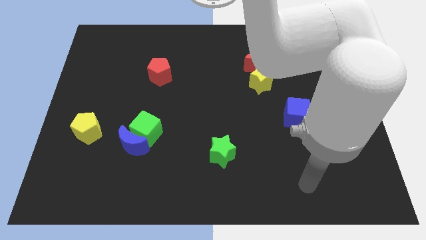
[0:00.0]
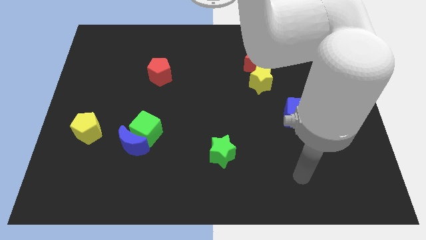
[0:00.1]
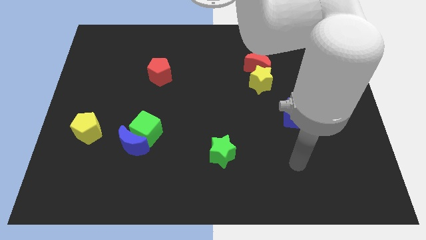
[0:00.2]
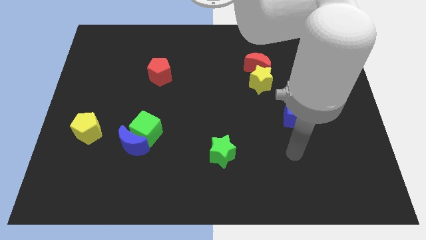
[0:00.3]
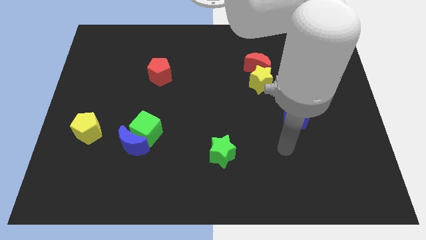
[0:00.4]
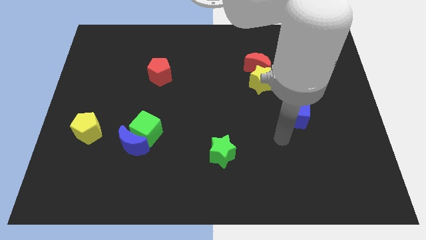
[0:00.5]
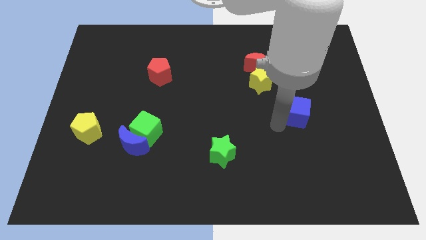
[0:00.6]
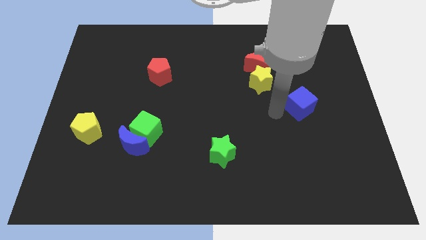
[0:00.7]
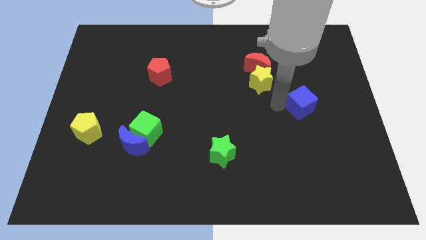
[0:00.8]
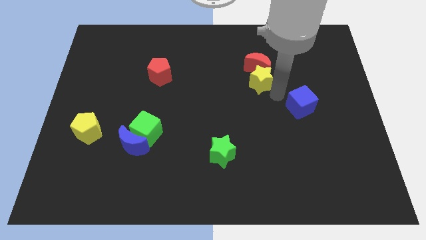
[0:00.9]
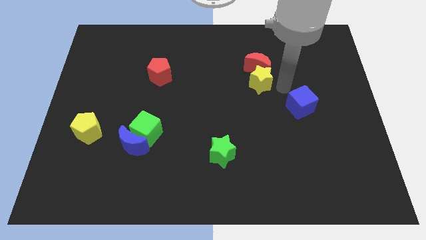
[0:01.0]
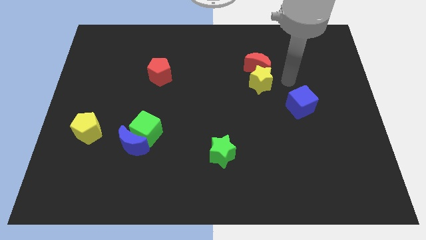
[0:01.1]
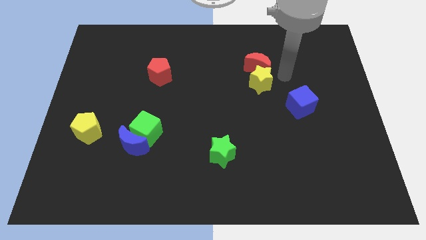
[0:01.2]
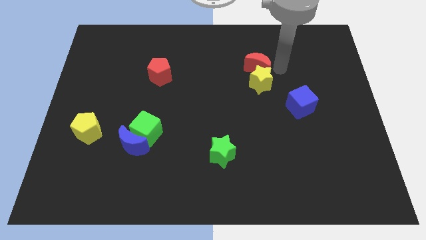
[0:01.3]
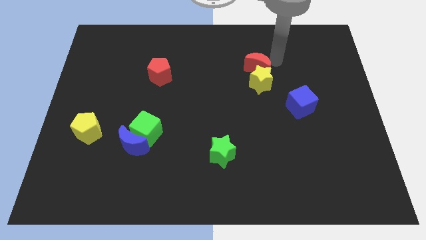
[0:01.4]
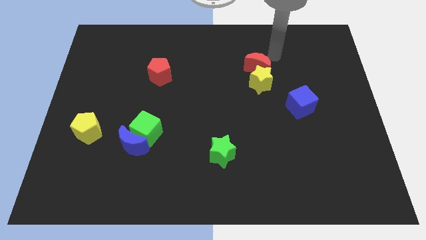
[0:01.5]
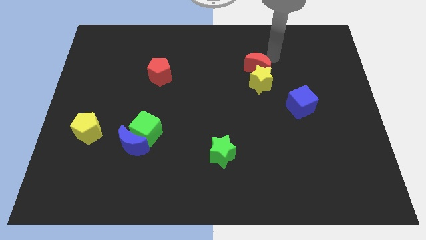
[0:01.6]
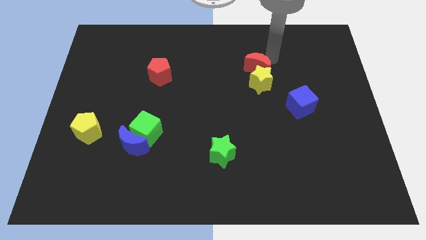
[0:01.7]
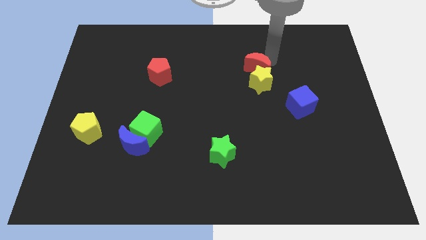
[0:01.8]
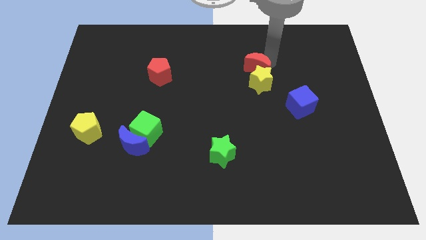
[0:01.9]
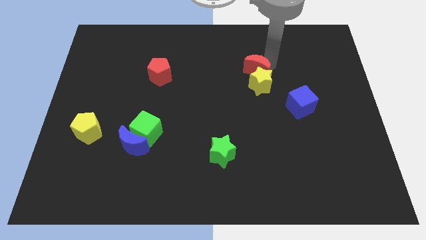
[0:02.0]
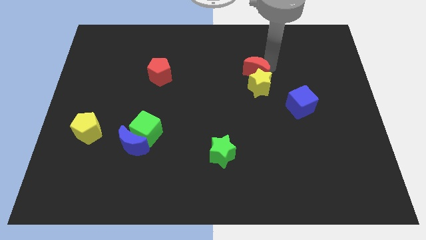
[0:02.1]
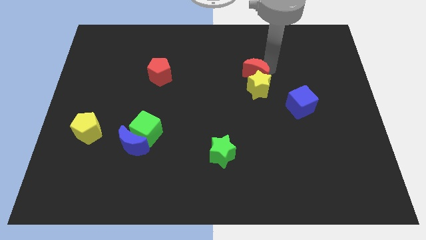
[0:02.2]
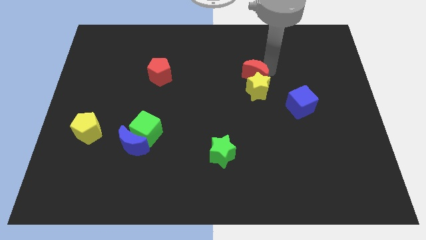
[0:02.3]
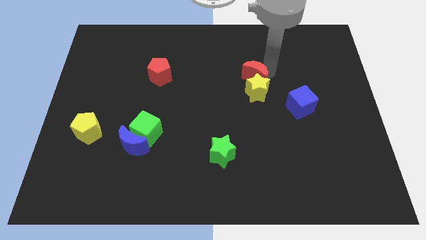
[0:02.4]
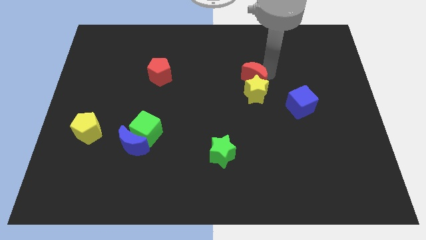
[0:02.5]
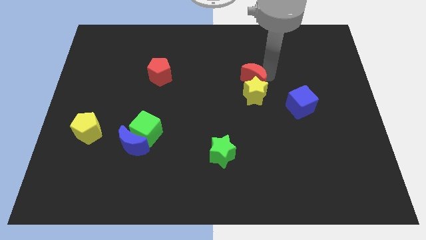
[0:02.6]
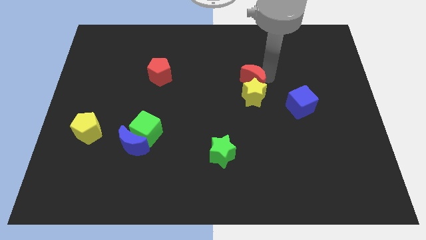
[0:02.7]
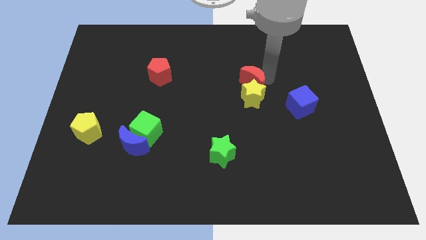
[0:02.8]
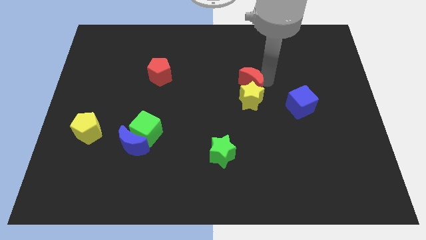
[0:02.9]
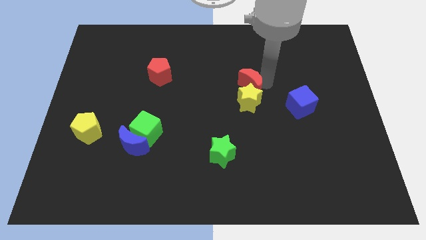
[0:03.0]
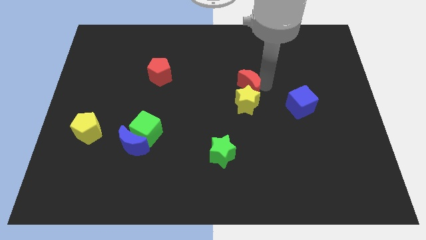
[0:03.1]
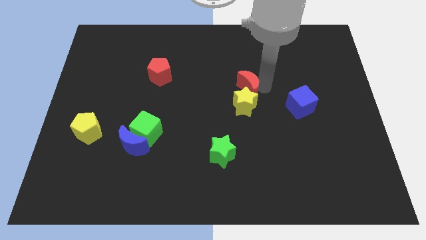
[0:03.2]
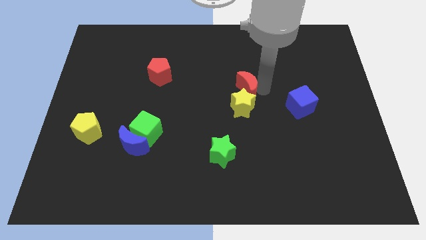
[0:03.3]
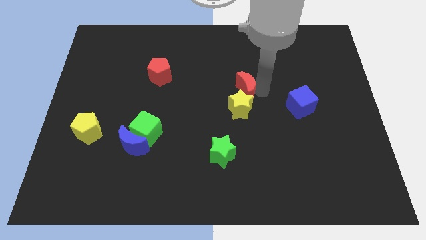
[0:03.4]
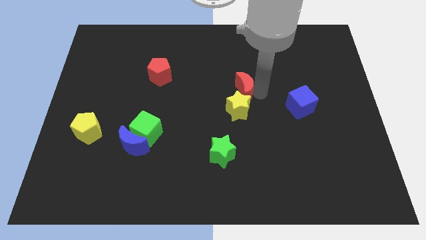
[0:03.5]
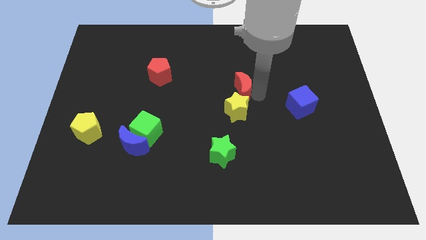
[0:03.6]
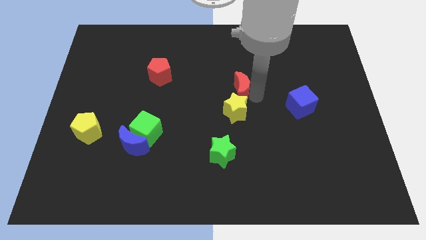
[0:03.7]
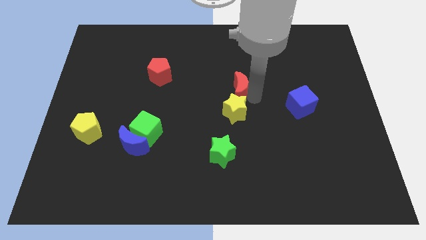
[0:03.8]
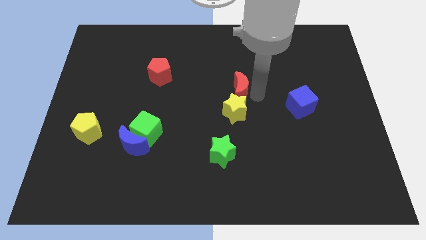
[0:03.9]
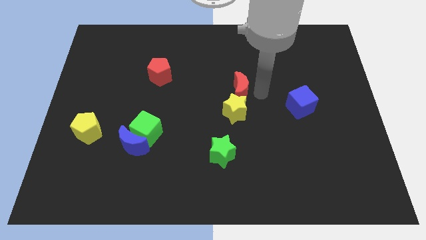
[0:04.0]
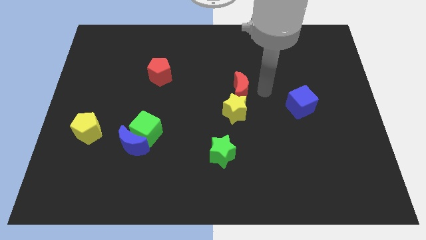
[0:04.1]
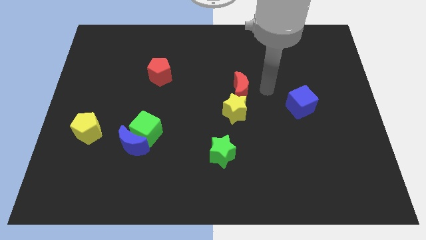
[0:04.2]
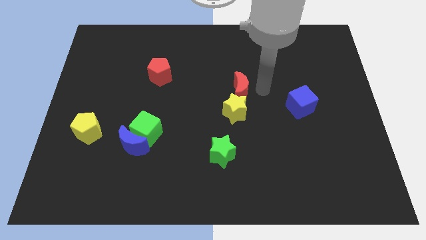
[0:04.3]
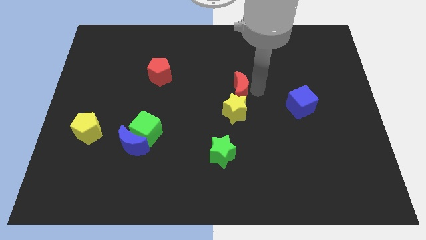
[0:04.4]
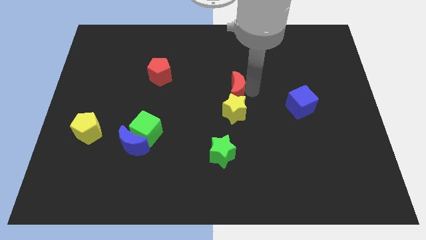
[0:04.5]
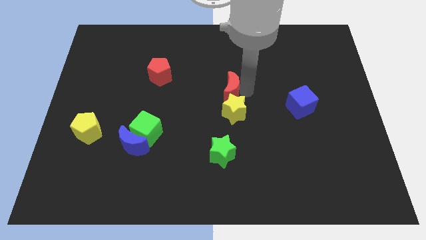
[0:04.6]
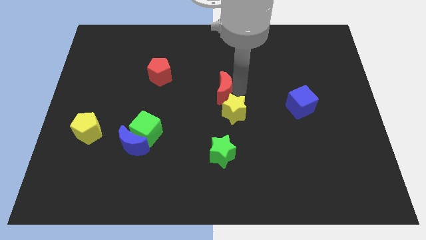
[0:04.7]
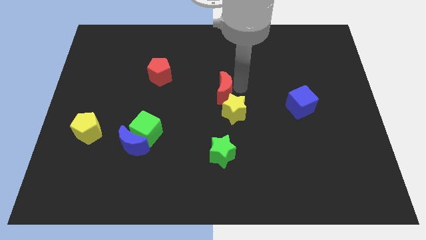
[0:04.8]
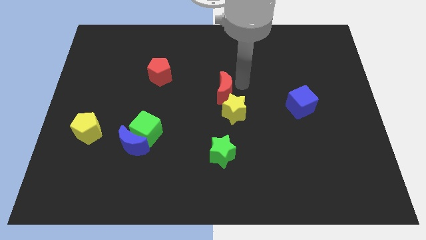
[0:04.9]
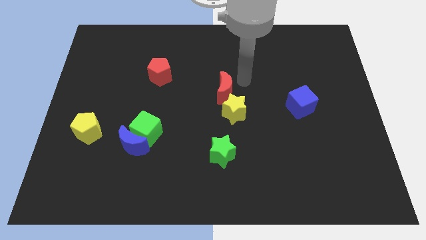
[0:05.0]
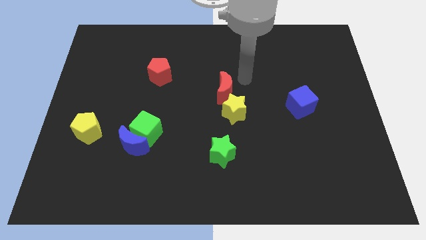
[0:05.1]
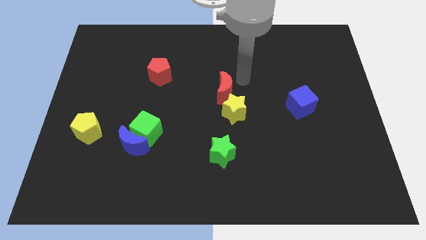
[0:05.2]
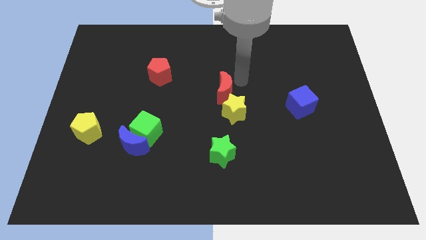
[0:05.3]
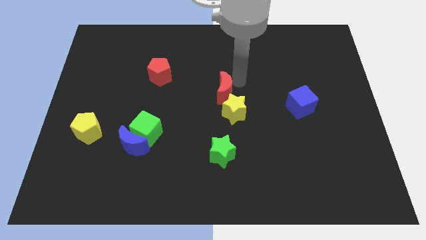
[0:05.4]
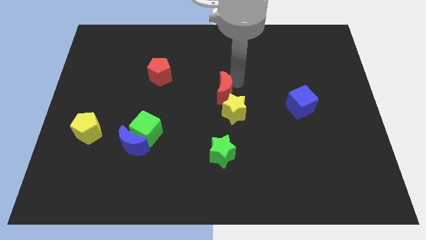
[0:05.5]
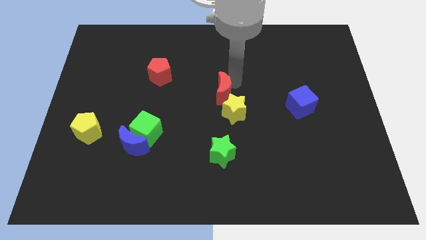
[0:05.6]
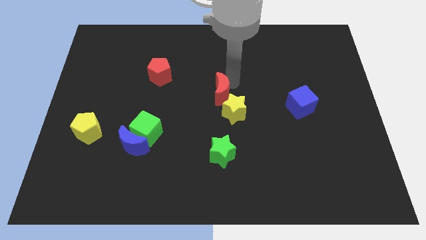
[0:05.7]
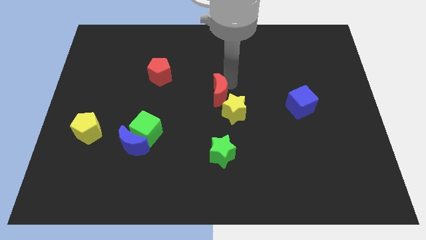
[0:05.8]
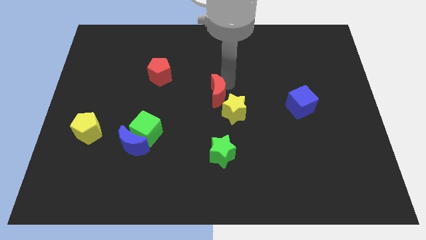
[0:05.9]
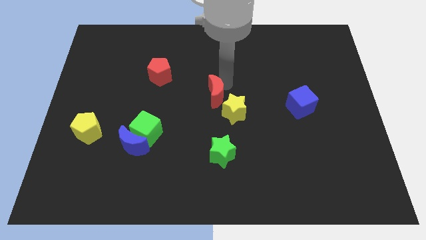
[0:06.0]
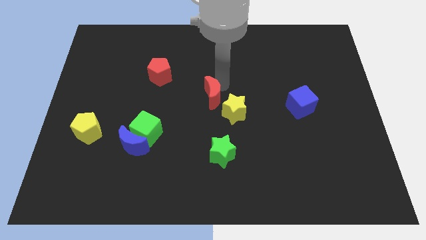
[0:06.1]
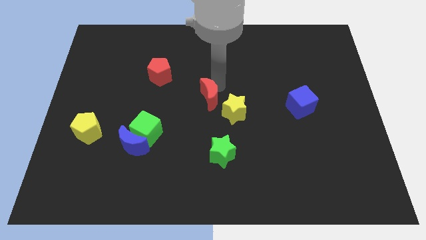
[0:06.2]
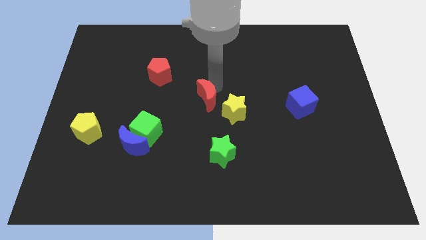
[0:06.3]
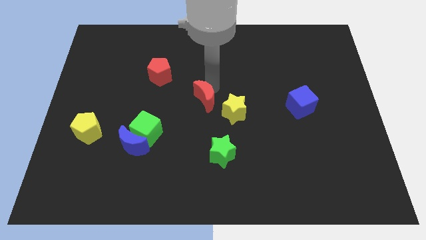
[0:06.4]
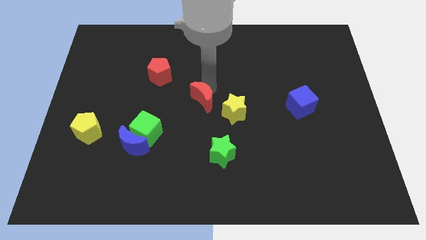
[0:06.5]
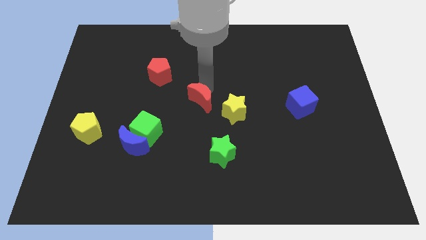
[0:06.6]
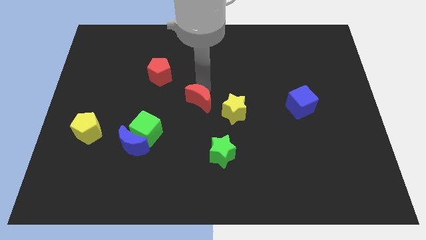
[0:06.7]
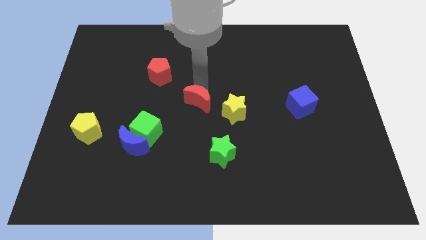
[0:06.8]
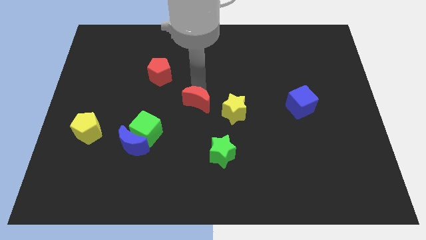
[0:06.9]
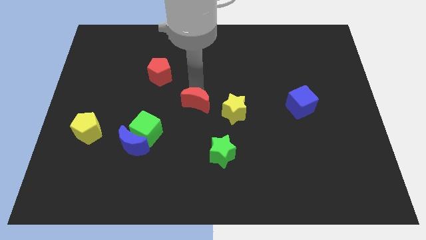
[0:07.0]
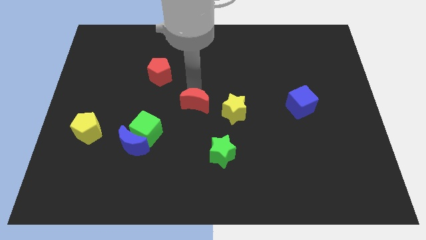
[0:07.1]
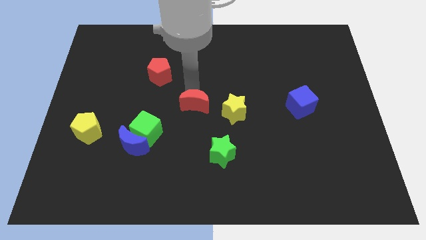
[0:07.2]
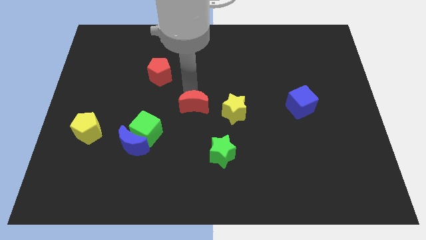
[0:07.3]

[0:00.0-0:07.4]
push the red moon down and to the left

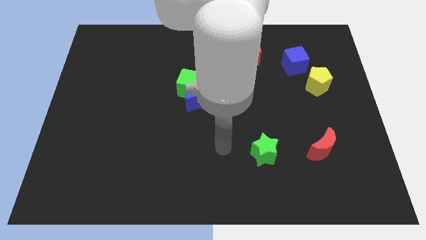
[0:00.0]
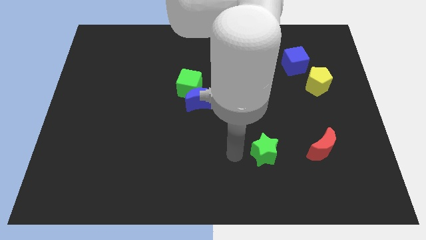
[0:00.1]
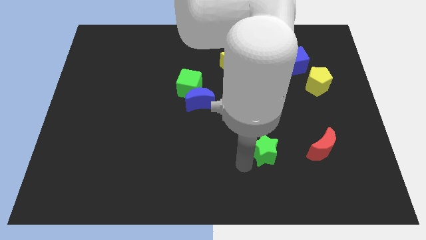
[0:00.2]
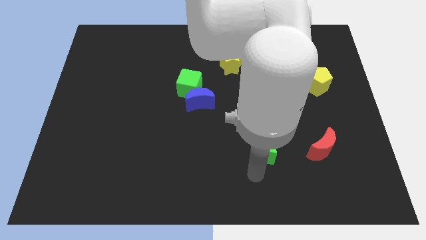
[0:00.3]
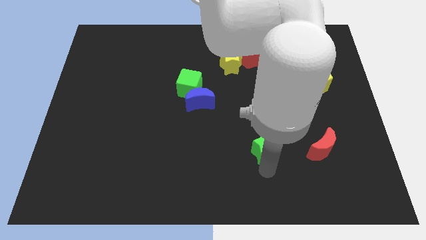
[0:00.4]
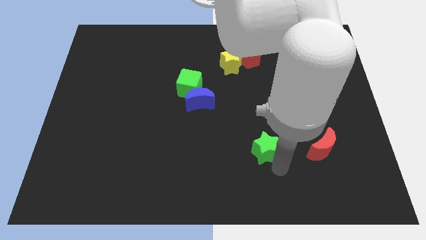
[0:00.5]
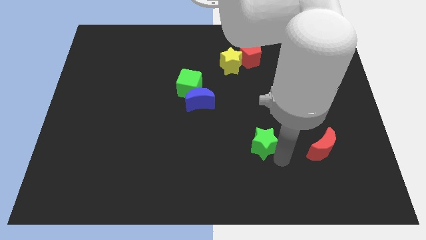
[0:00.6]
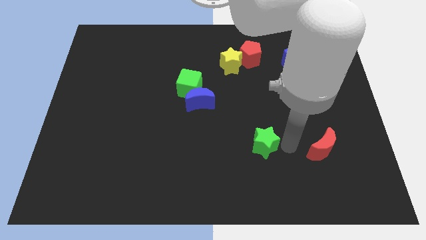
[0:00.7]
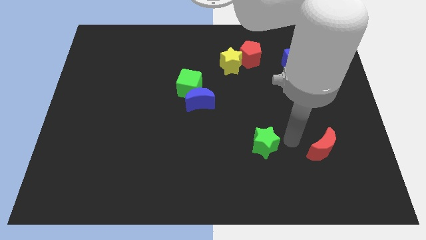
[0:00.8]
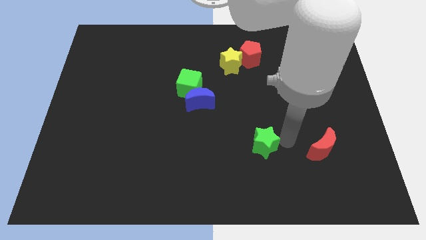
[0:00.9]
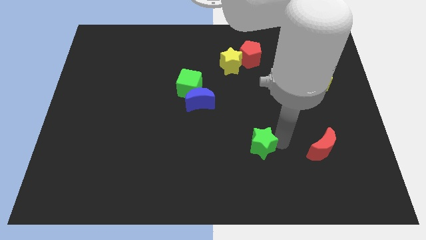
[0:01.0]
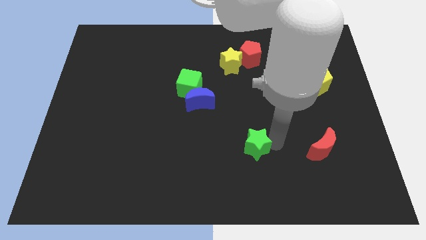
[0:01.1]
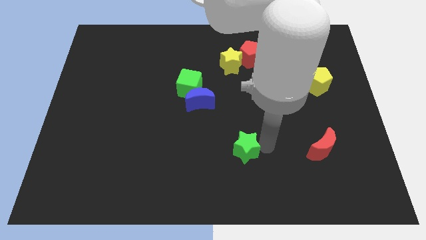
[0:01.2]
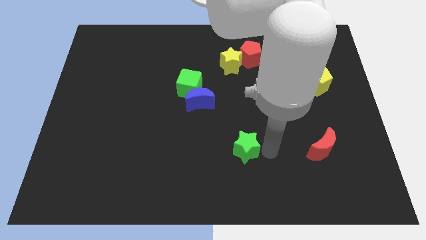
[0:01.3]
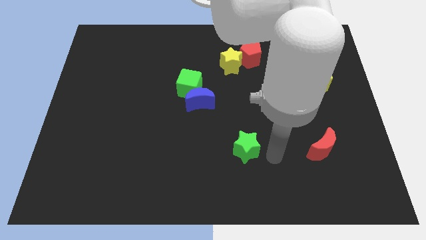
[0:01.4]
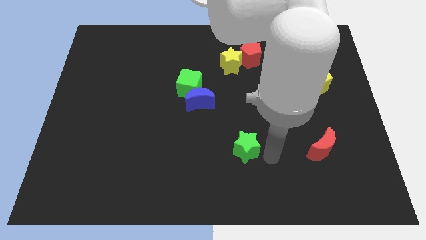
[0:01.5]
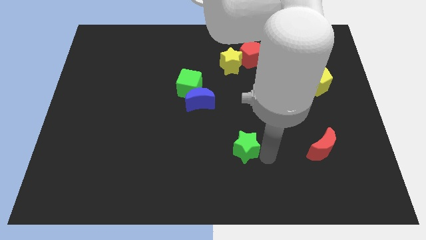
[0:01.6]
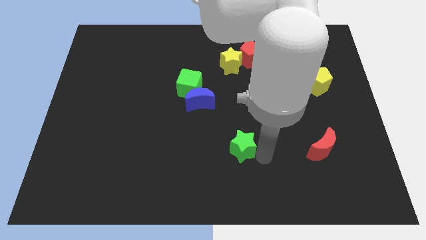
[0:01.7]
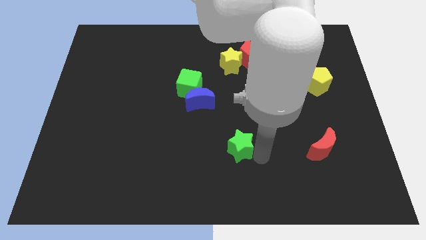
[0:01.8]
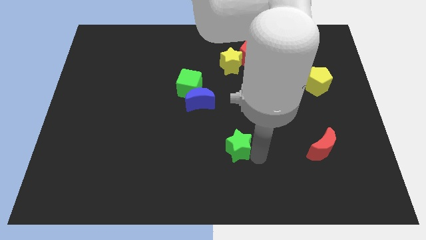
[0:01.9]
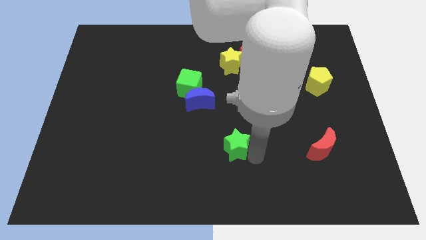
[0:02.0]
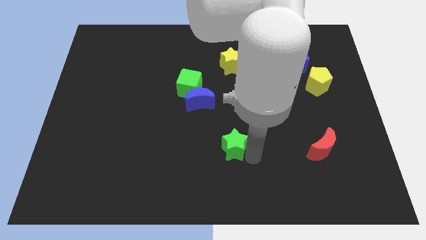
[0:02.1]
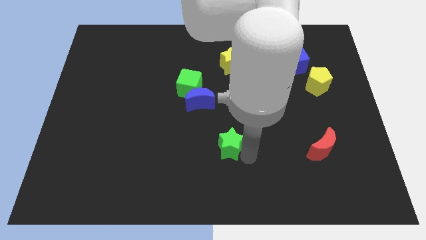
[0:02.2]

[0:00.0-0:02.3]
slightly move the green star left
